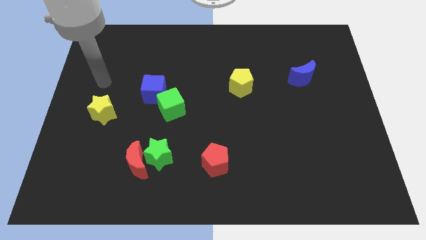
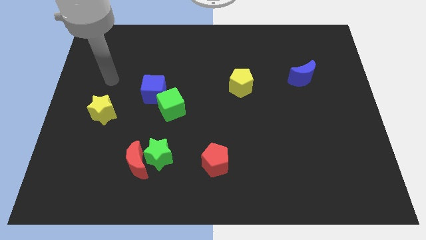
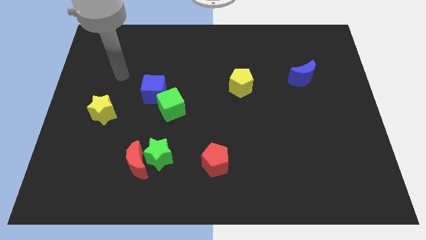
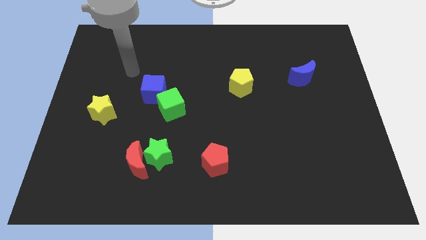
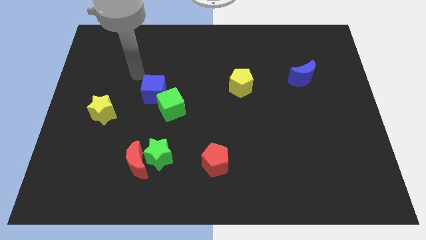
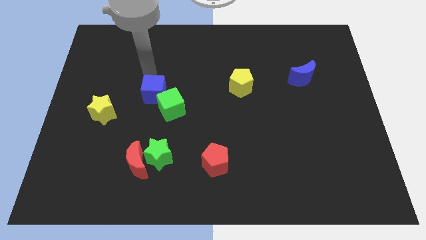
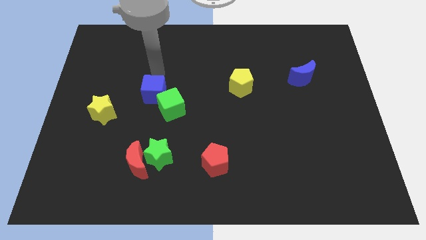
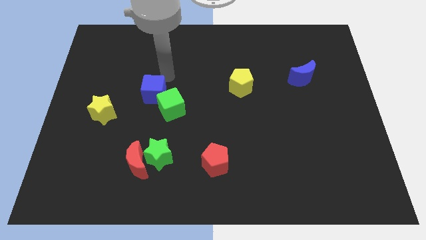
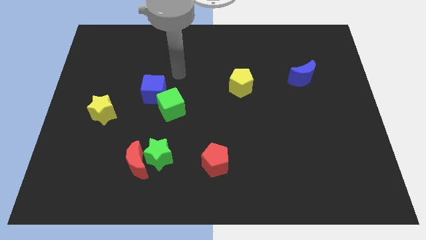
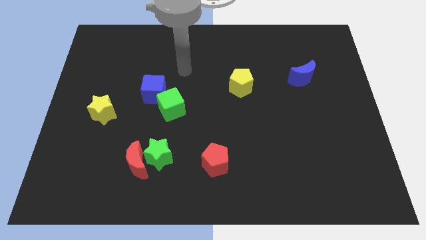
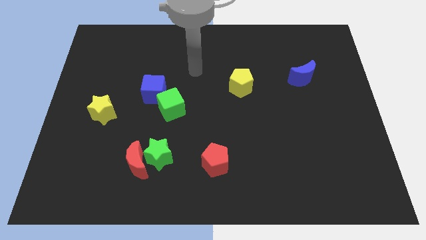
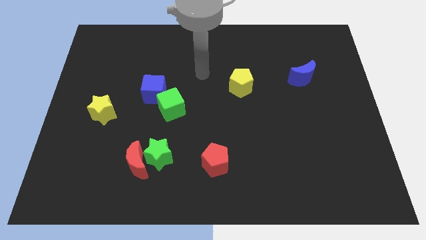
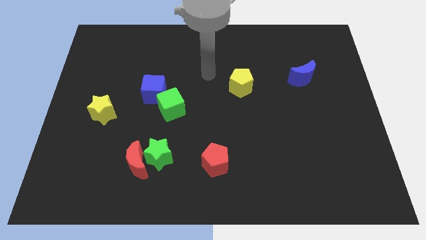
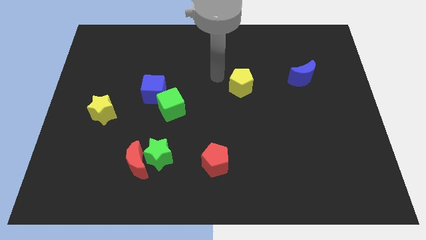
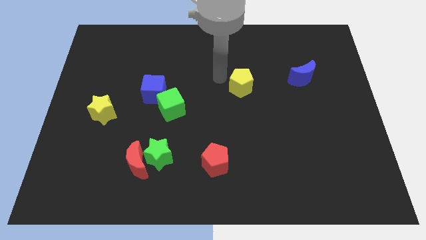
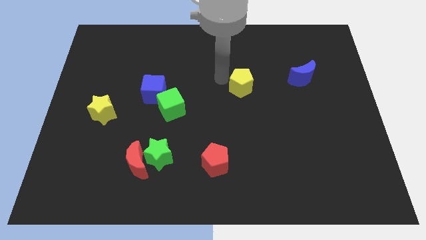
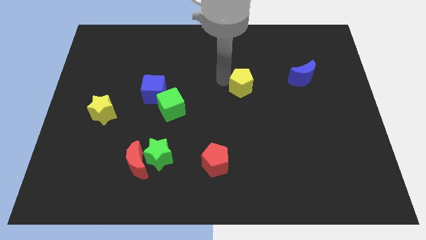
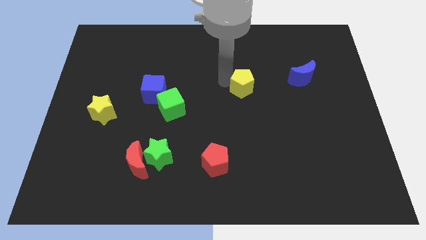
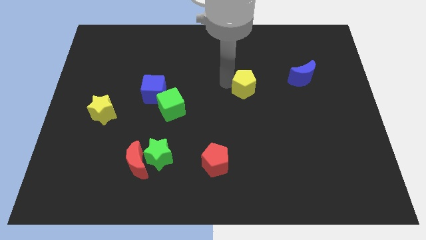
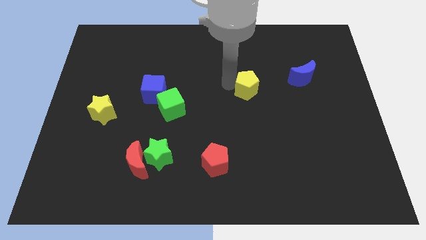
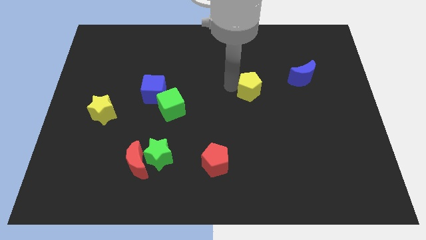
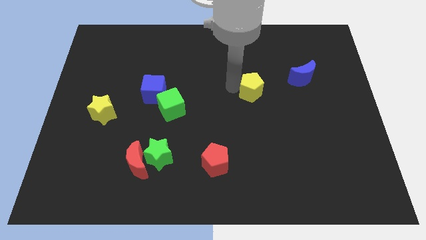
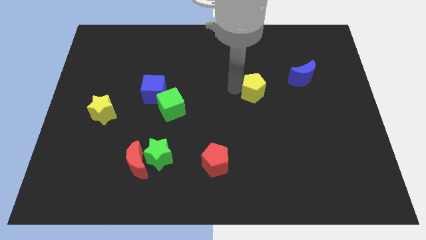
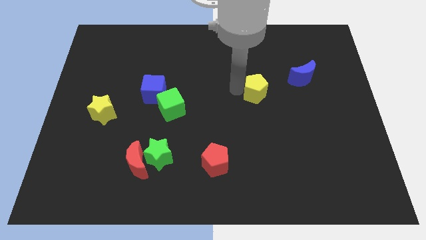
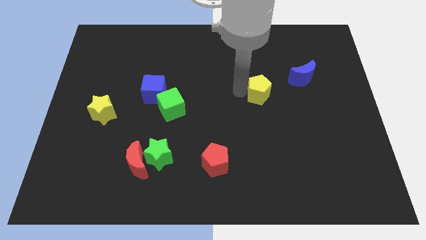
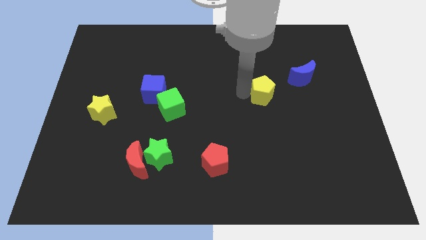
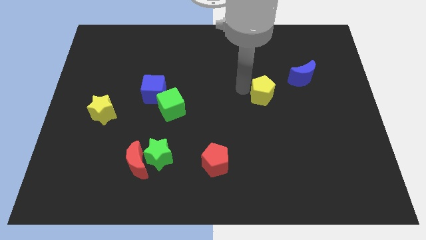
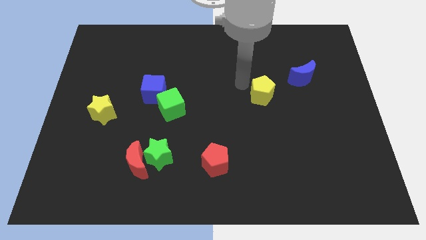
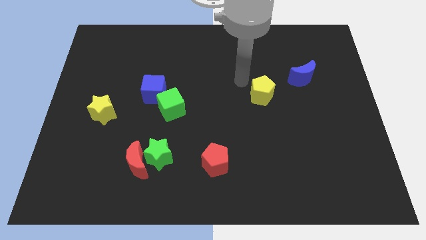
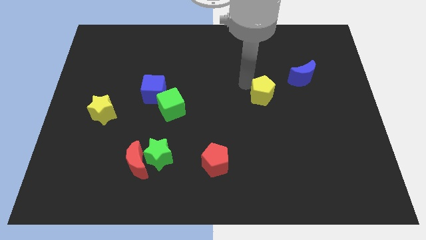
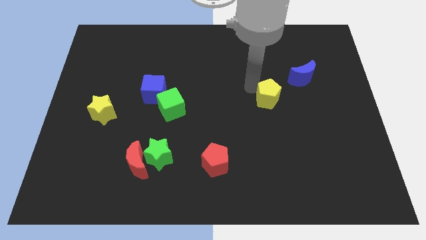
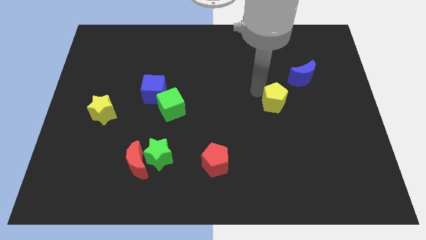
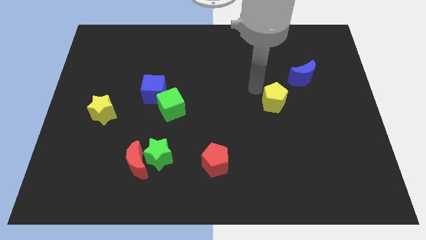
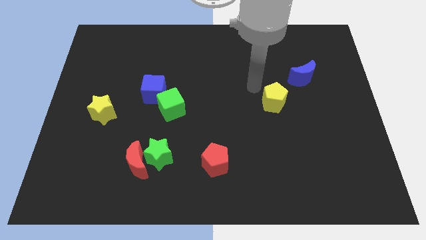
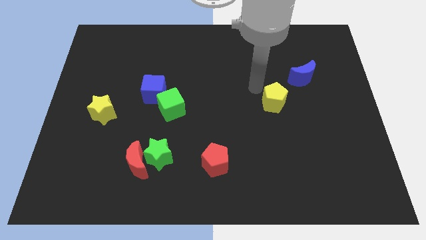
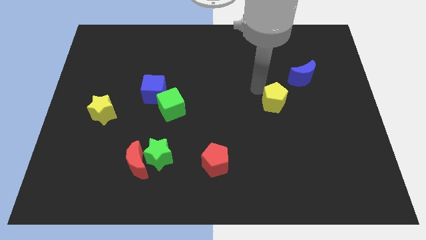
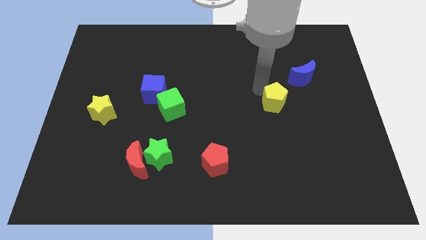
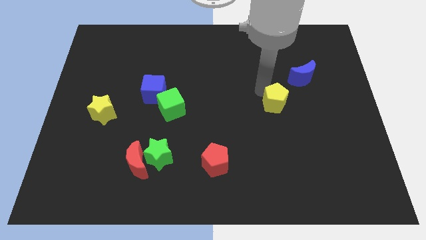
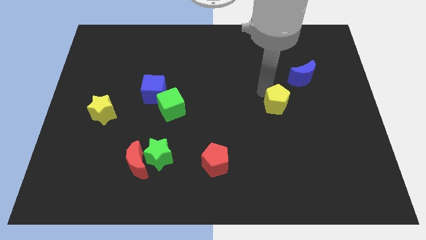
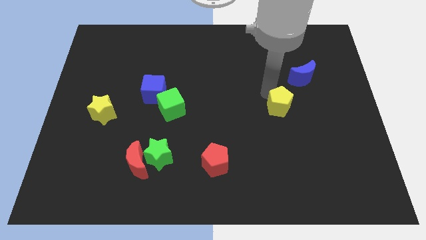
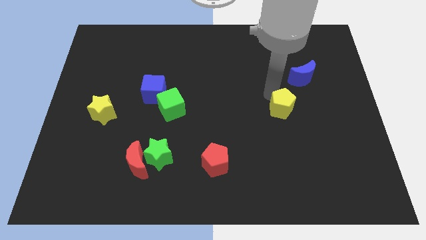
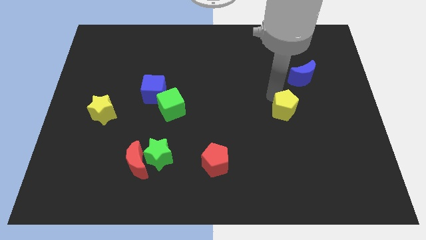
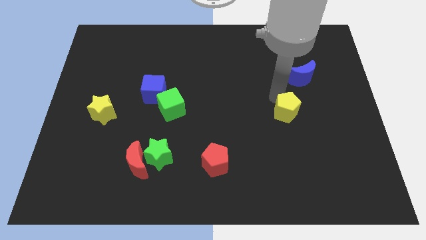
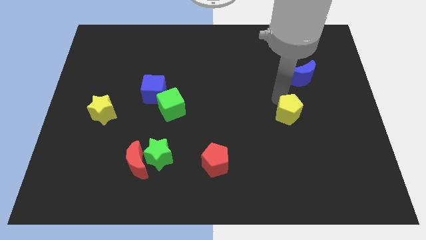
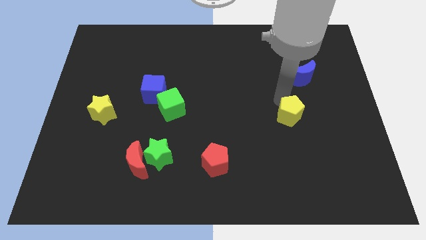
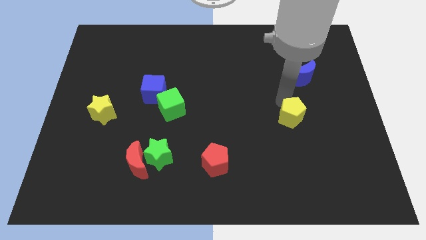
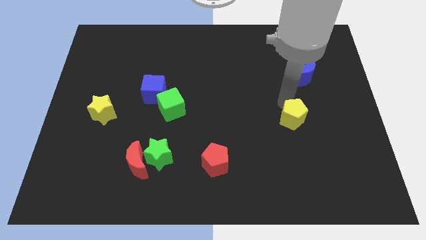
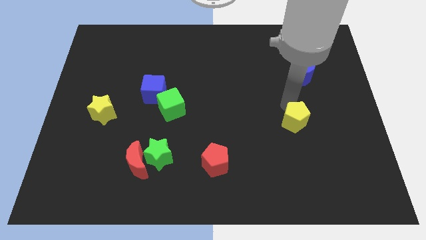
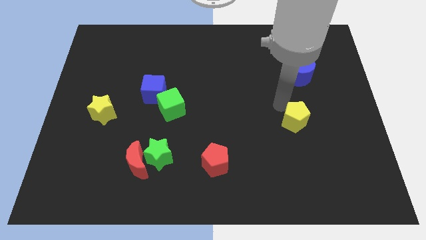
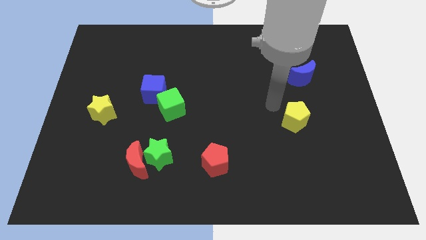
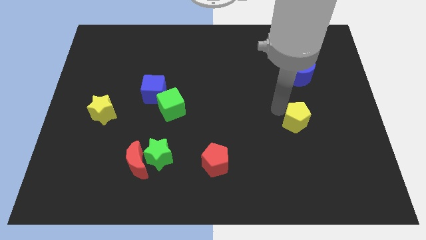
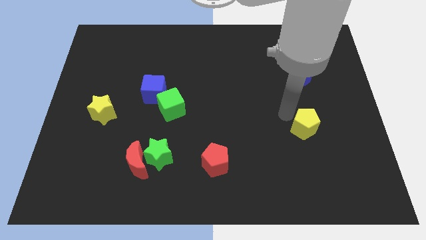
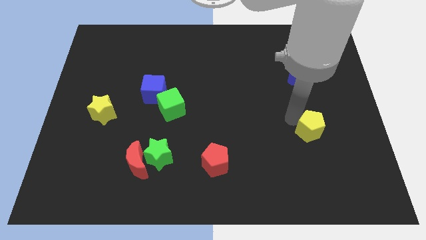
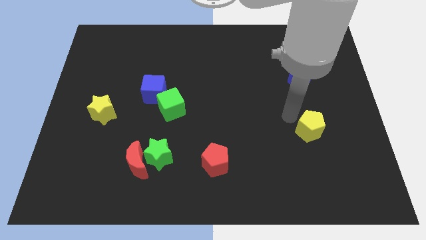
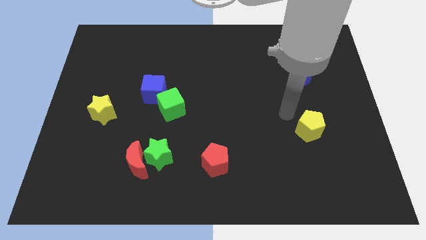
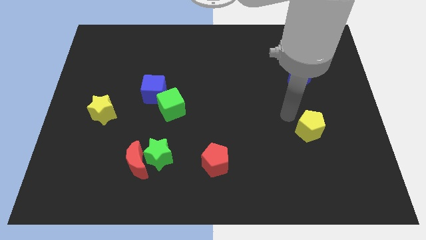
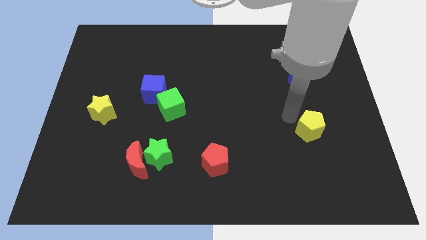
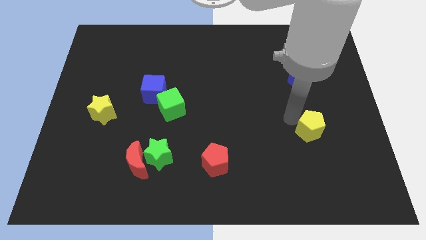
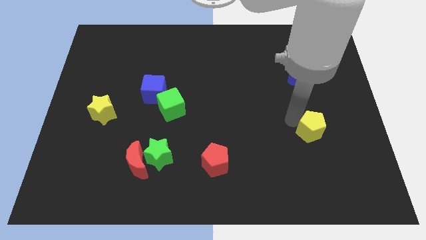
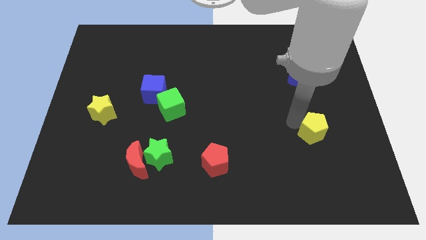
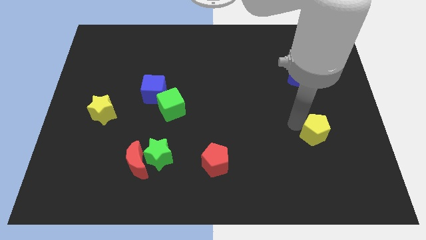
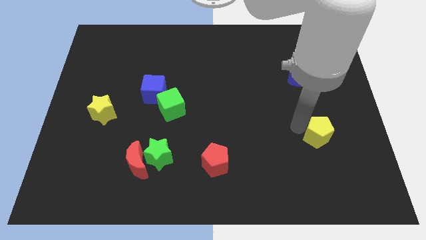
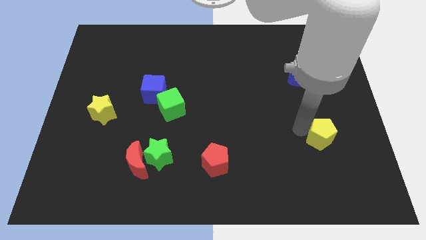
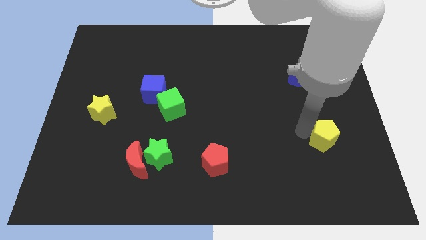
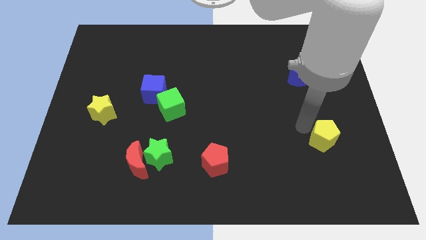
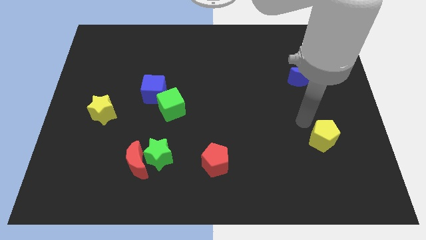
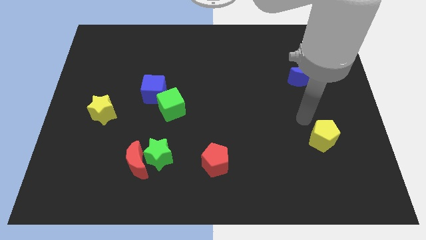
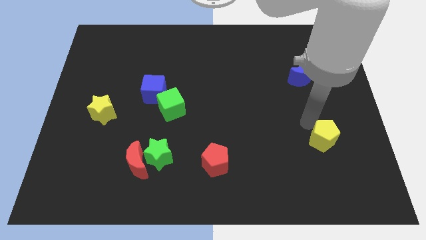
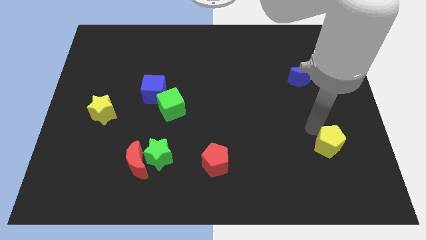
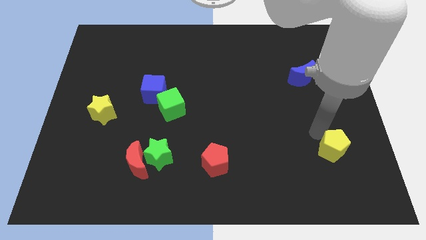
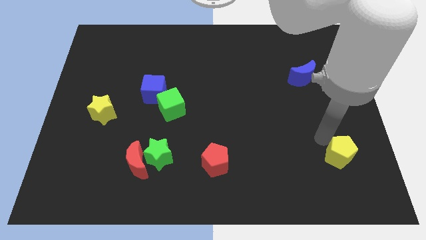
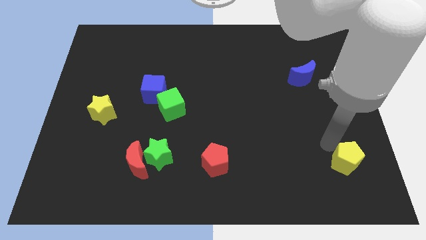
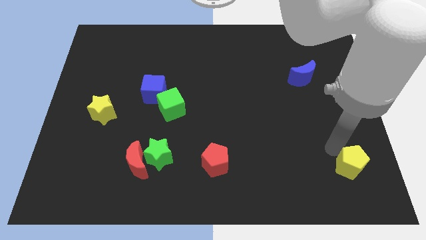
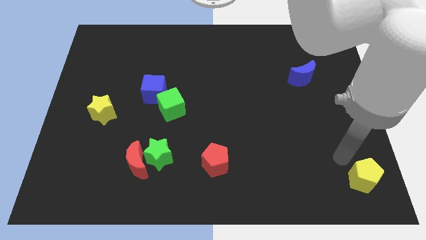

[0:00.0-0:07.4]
put the yellow pentagon to the bottom right

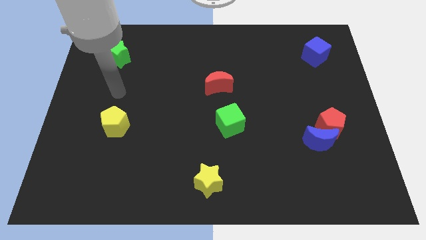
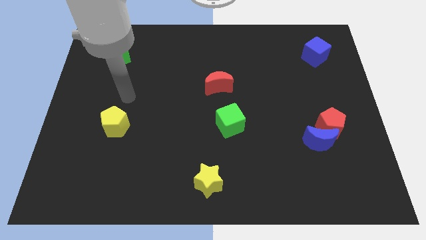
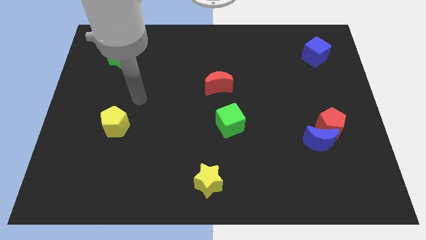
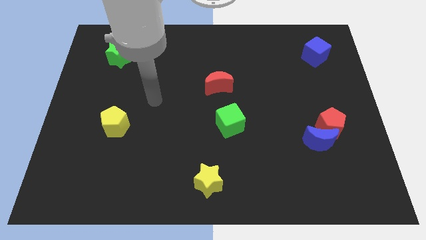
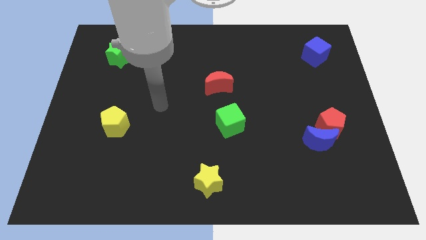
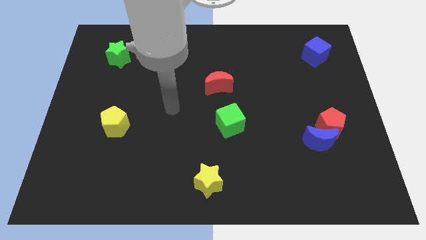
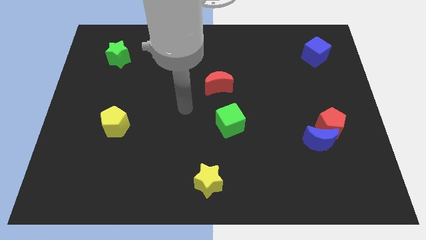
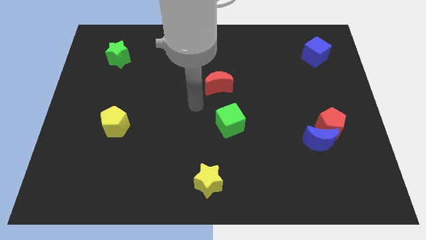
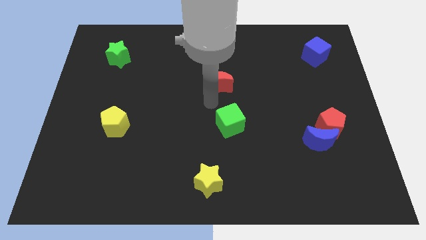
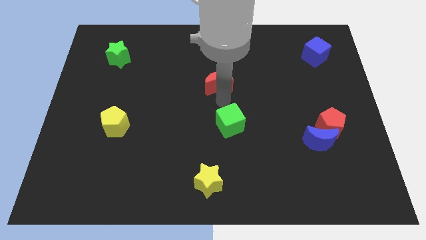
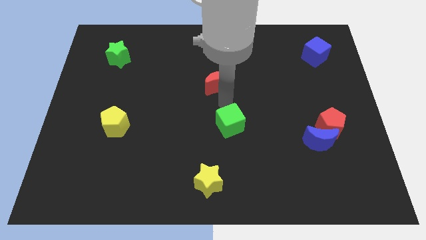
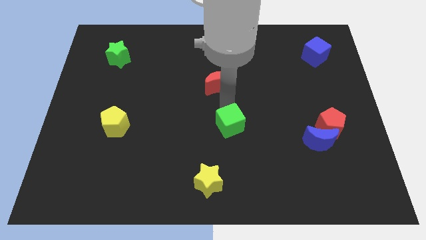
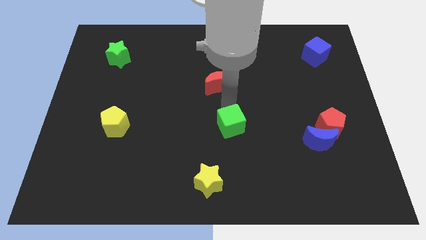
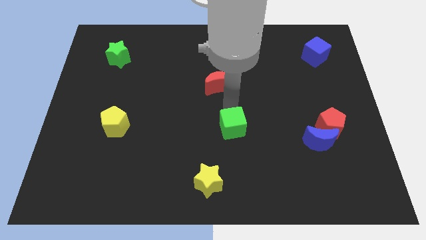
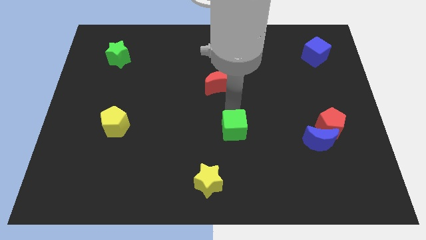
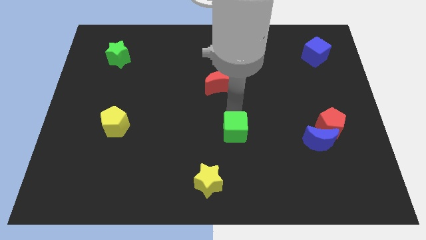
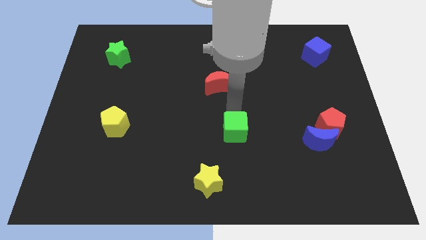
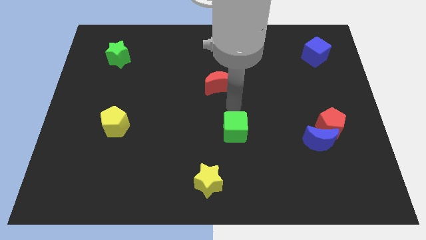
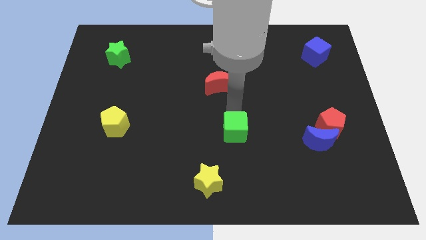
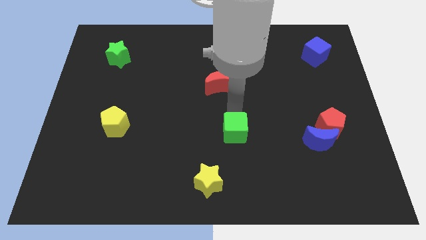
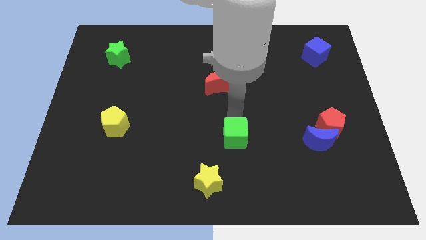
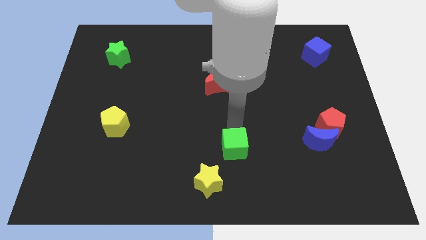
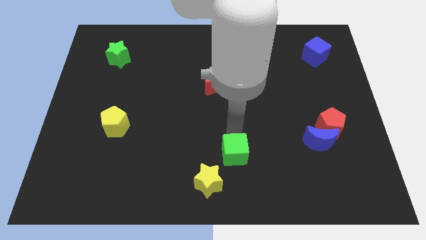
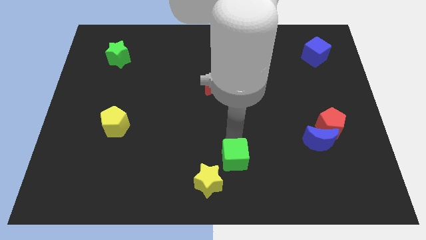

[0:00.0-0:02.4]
put the green cube to the bottom
